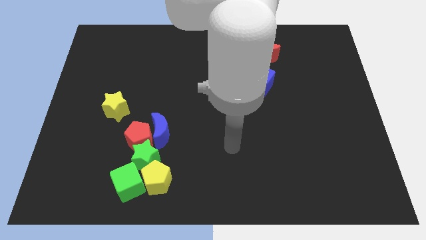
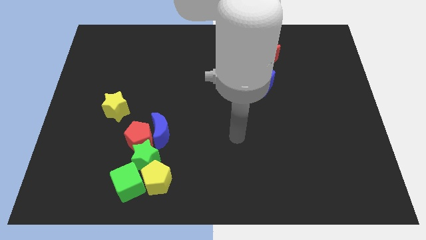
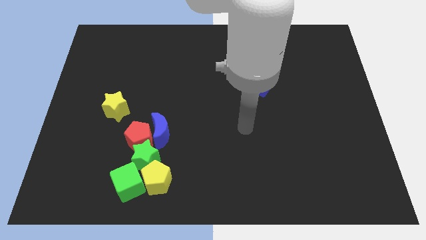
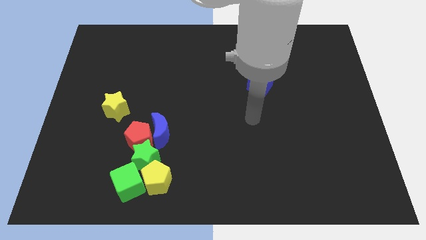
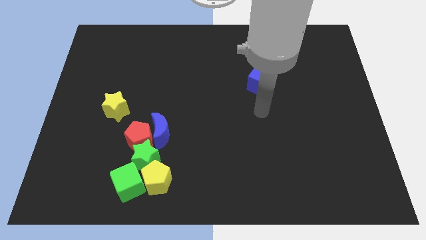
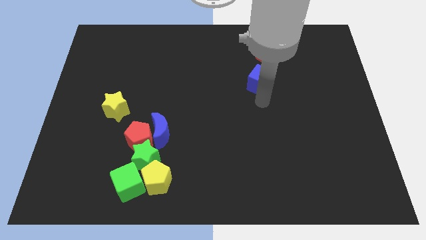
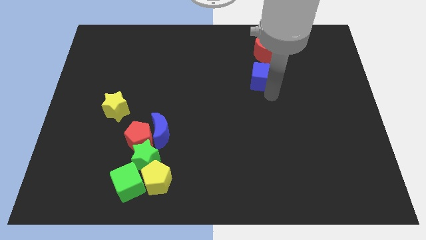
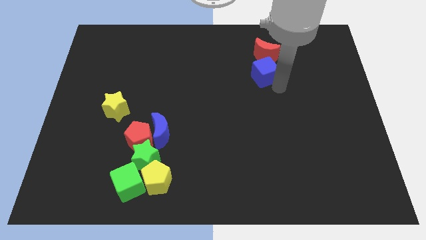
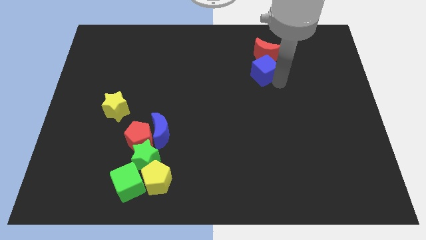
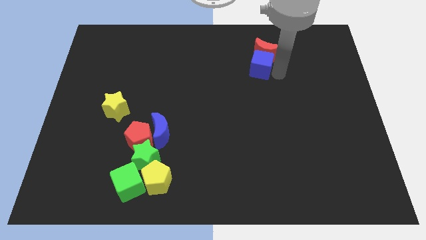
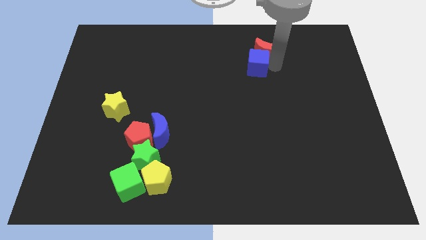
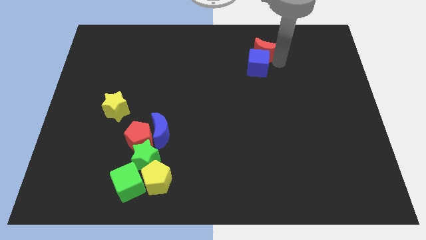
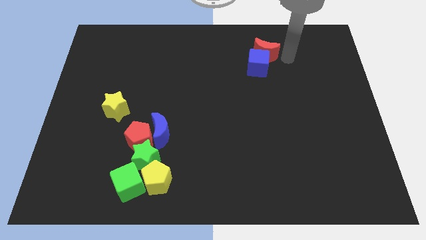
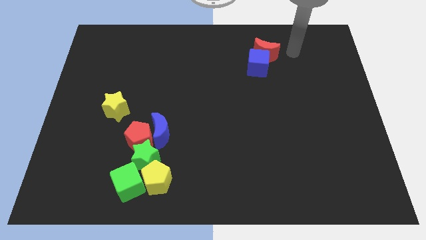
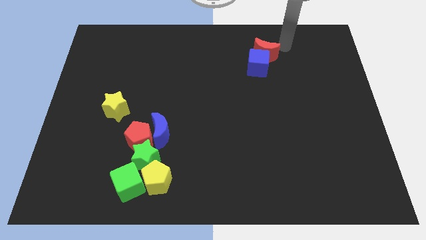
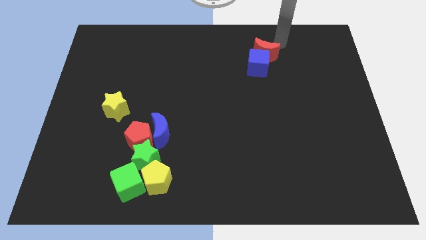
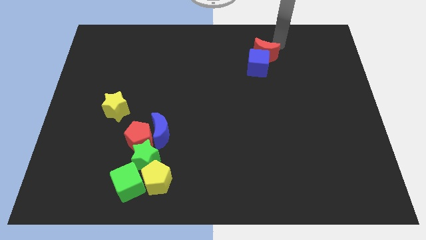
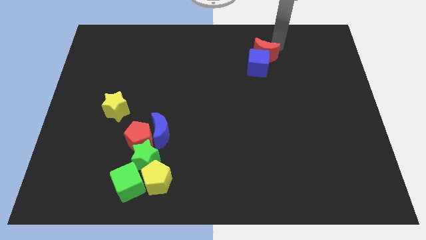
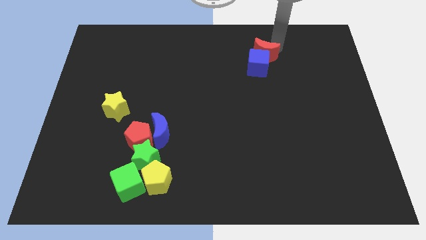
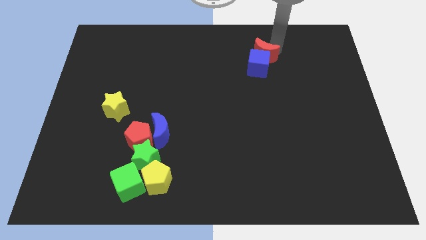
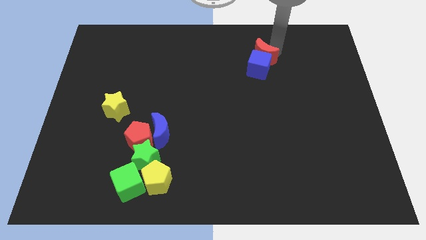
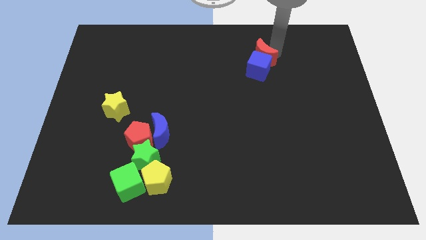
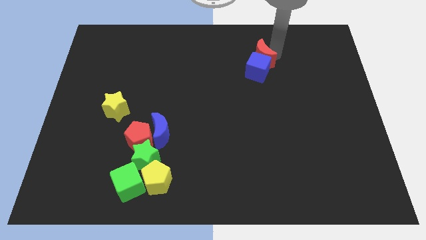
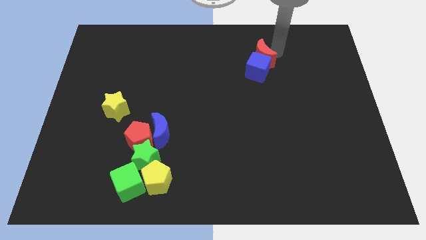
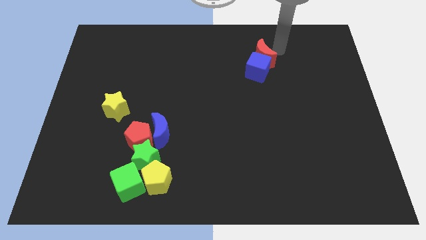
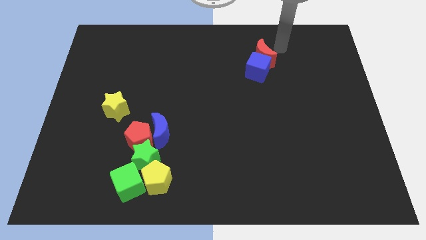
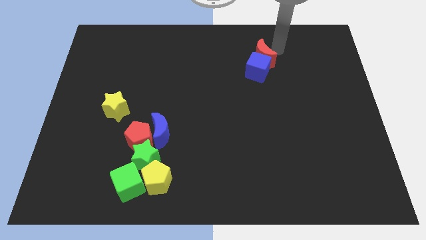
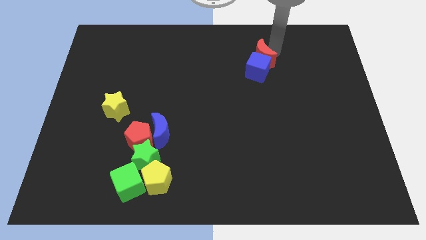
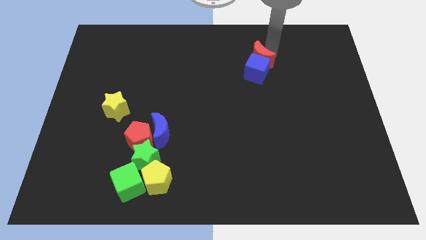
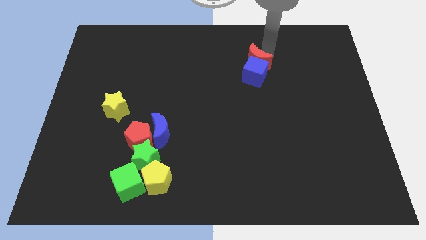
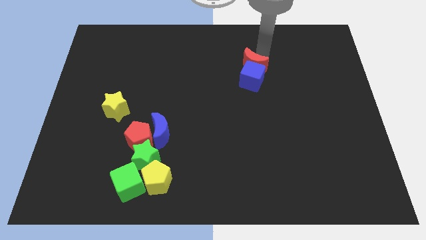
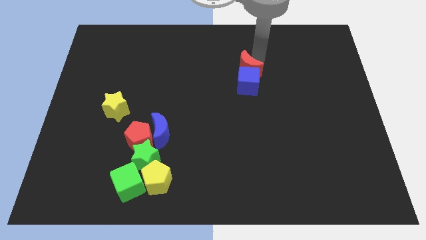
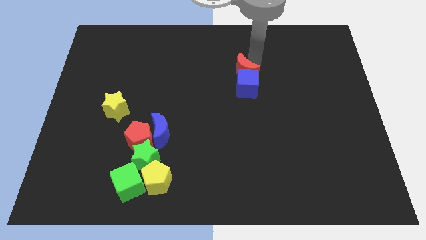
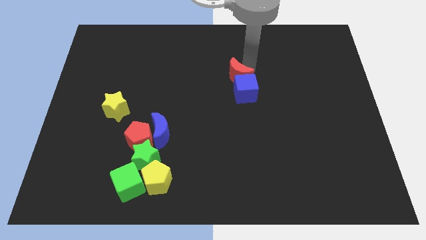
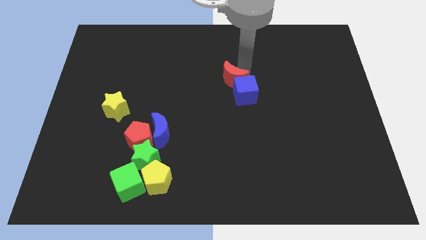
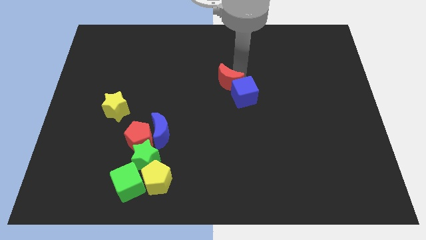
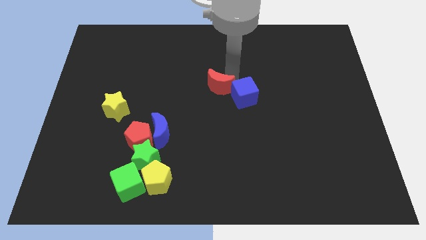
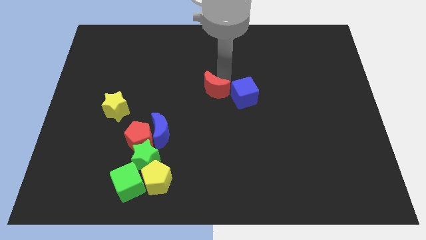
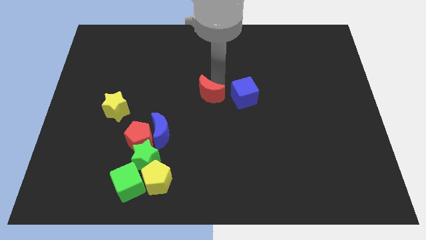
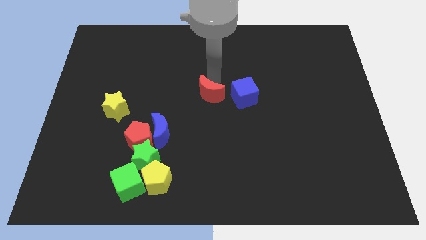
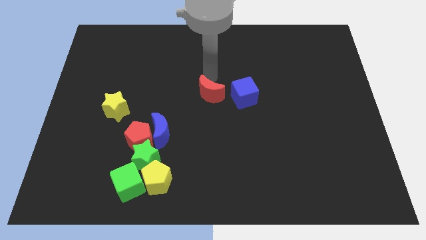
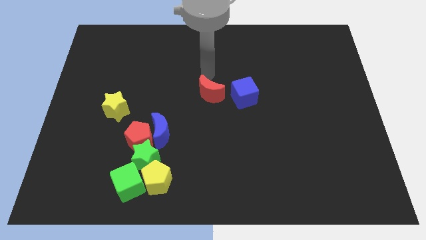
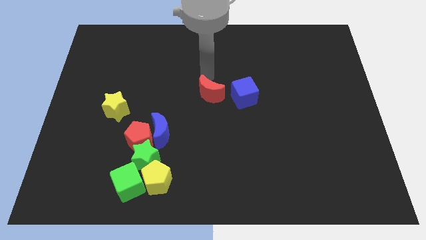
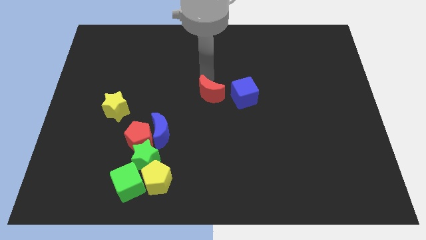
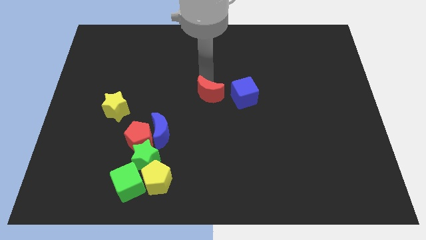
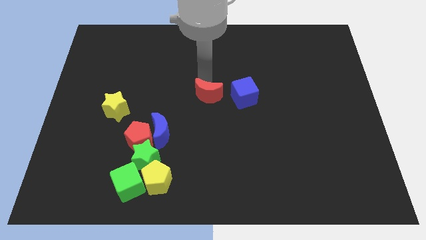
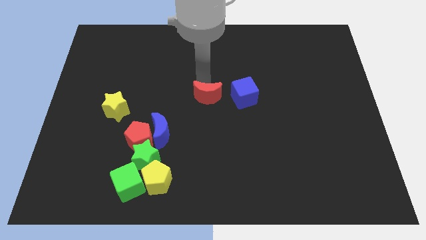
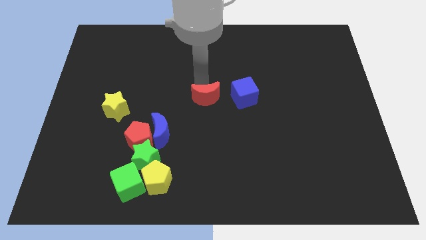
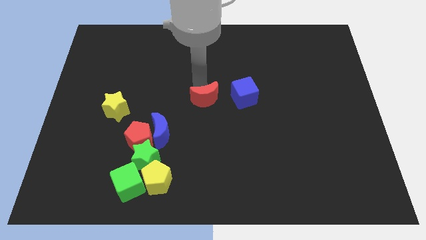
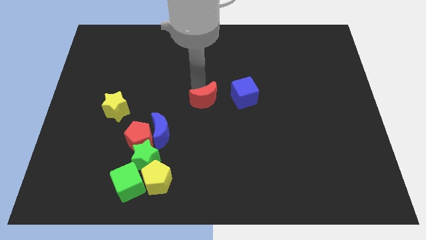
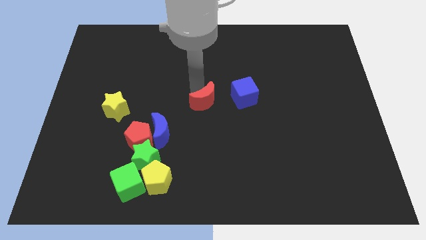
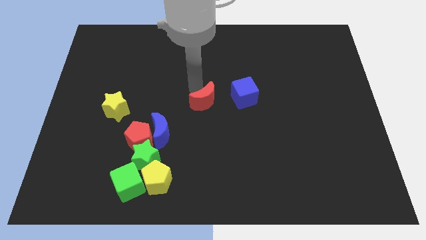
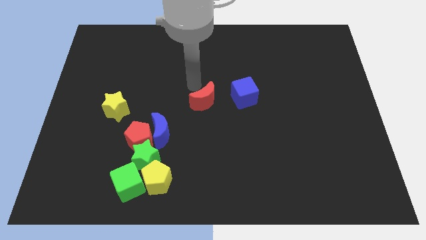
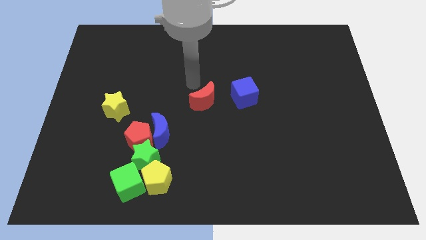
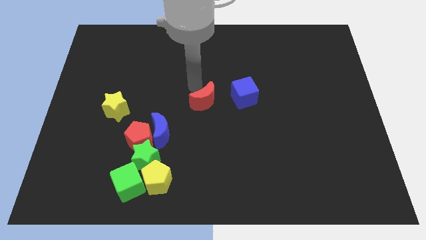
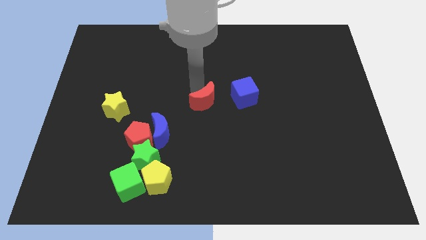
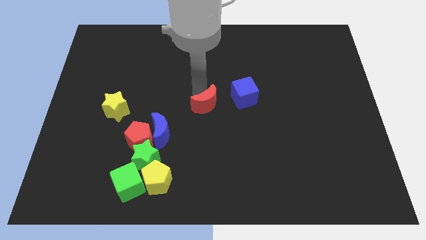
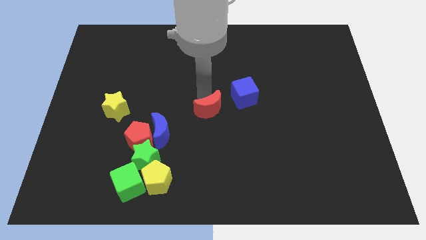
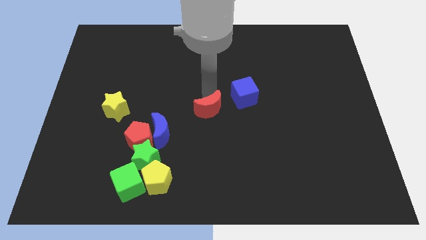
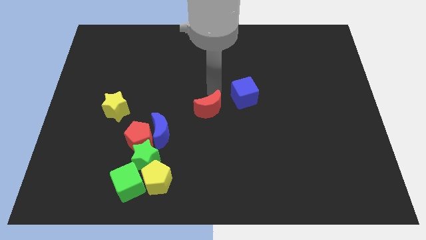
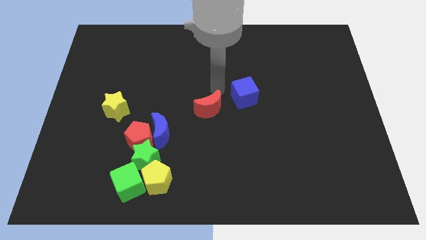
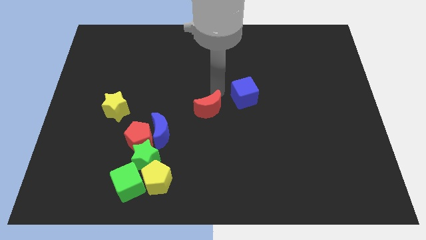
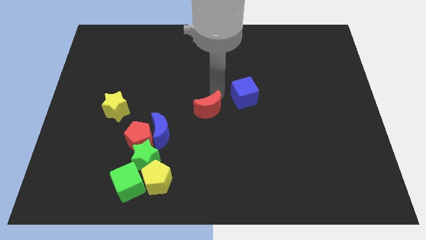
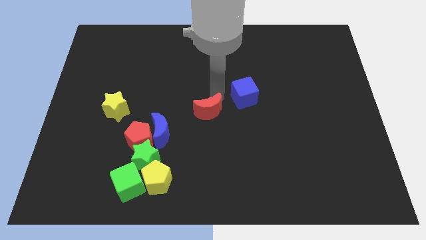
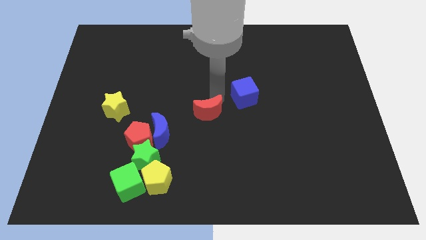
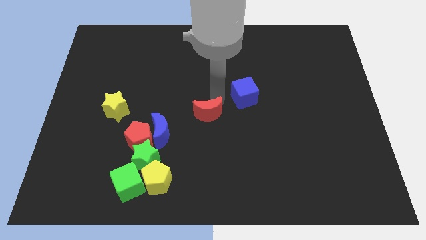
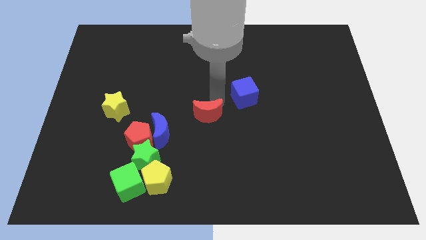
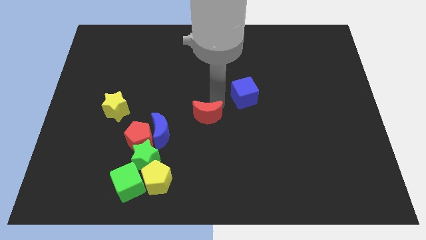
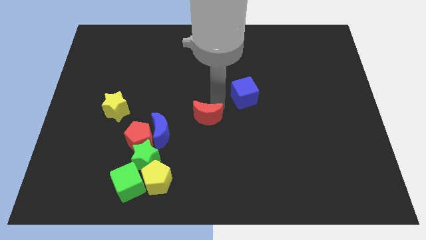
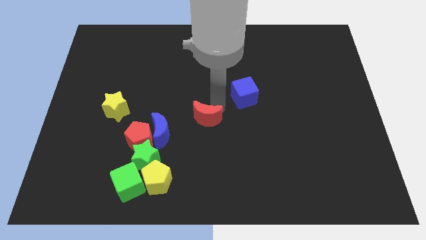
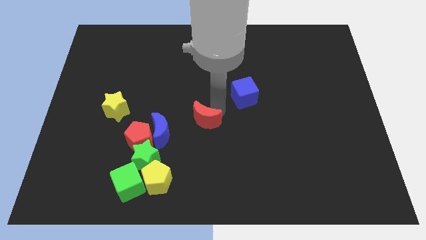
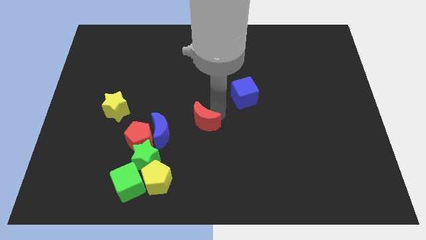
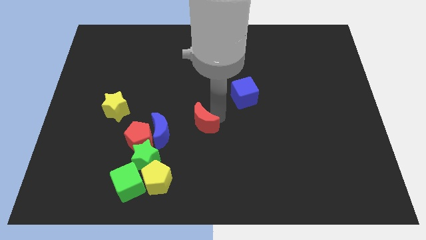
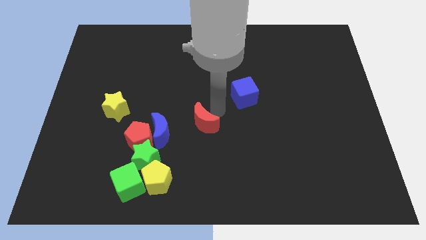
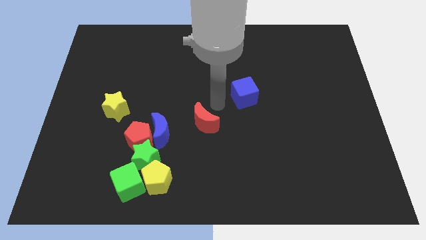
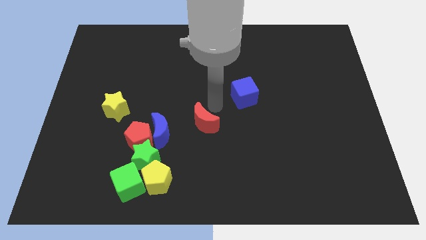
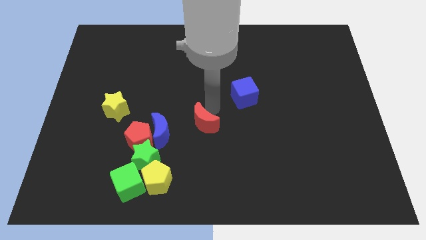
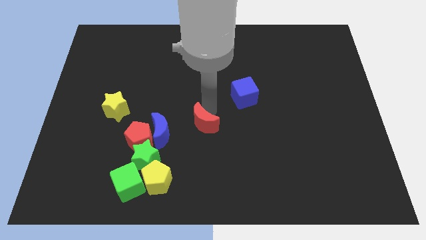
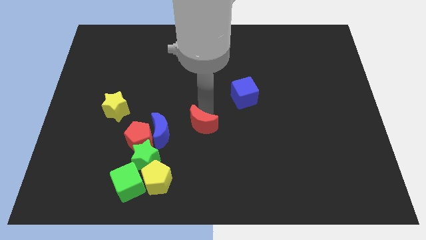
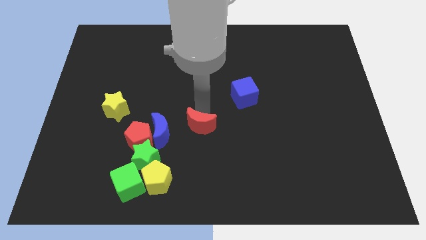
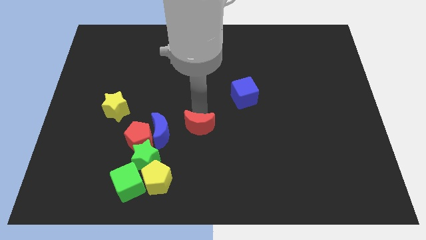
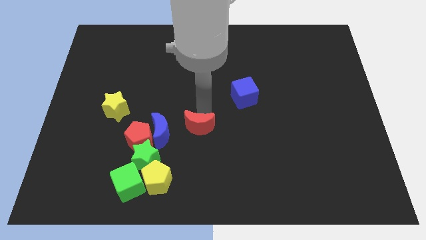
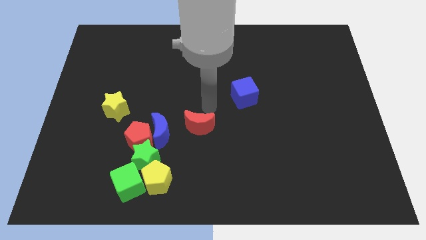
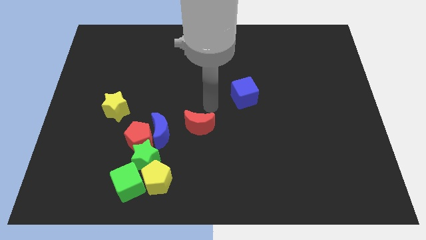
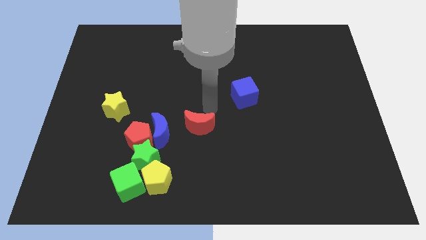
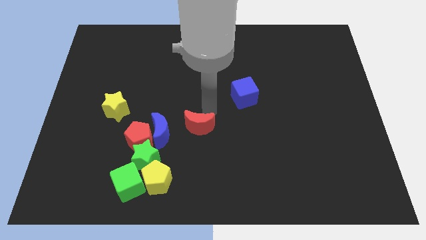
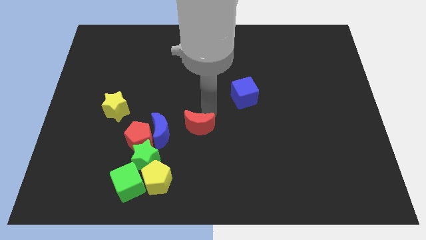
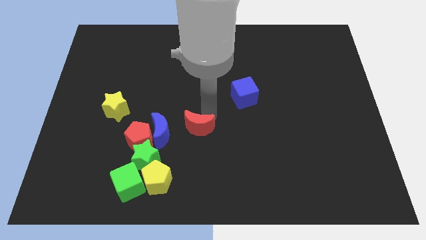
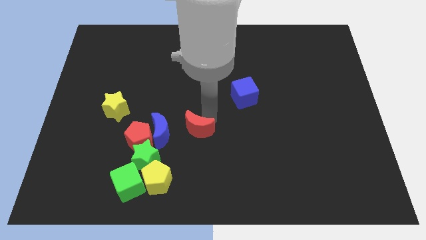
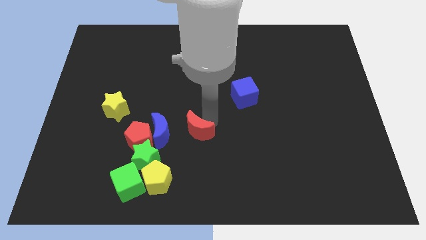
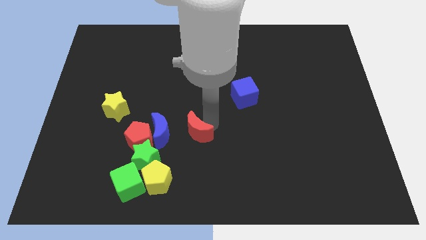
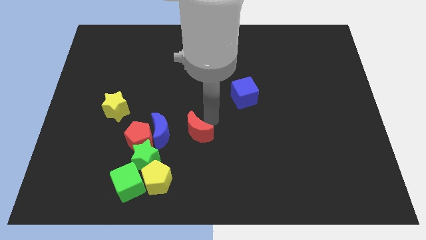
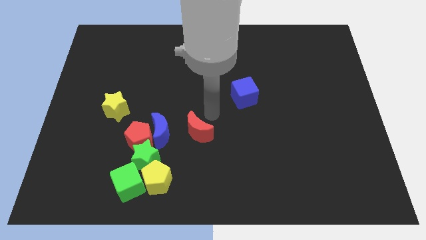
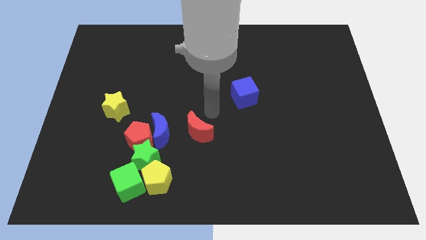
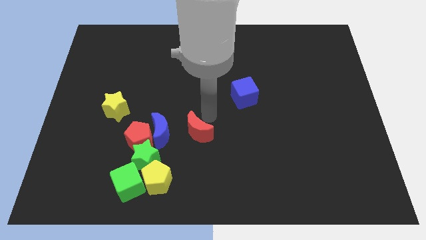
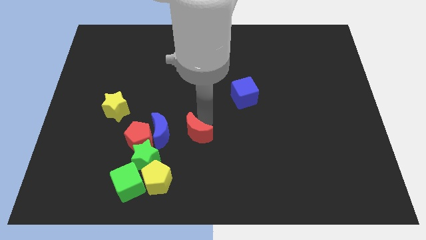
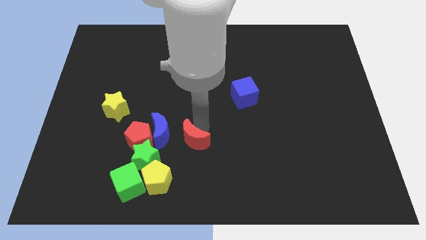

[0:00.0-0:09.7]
slide the red moon to the bottom right side of the blue moon
